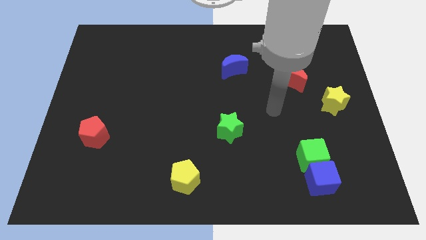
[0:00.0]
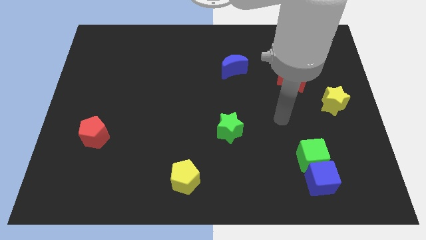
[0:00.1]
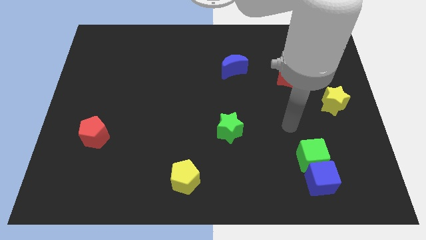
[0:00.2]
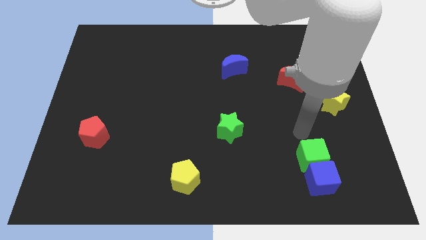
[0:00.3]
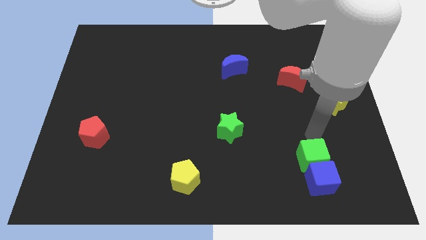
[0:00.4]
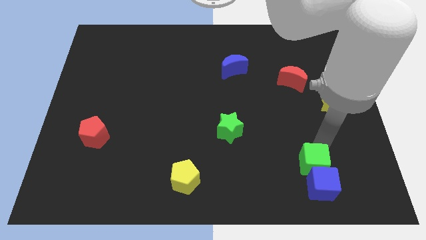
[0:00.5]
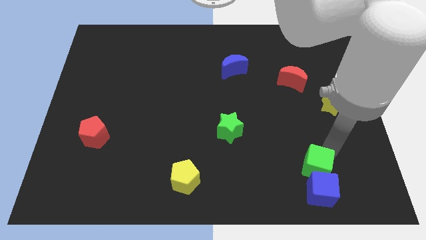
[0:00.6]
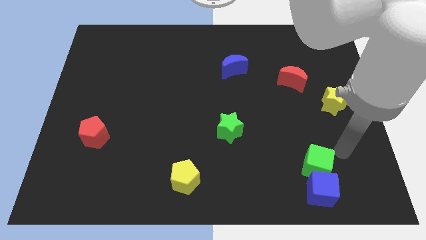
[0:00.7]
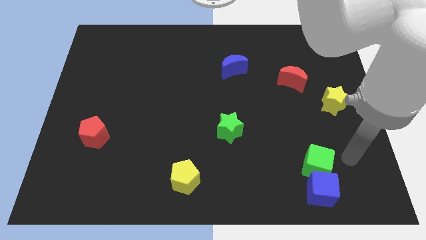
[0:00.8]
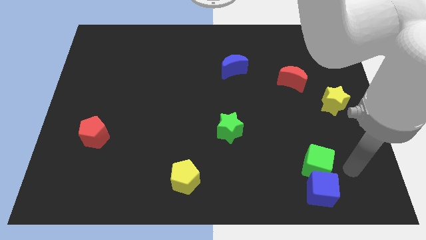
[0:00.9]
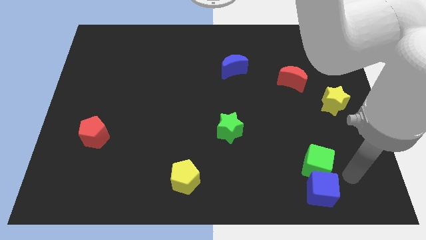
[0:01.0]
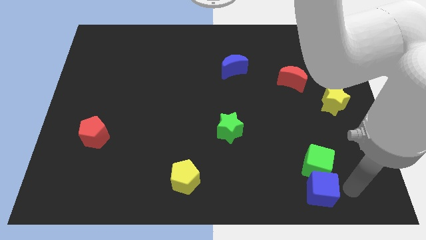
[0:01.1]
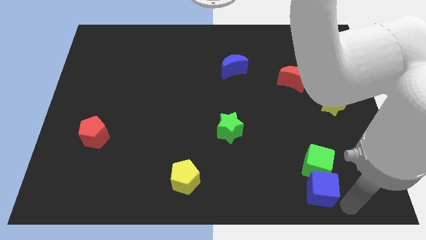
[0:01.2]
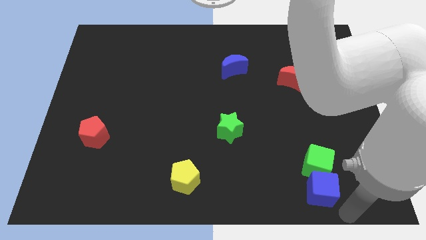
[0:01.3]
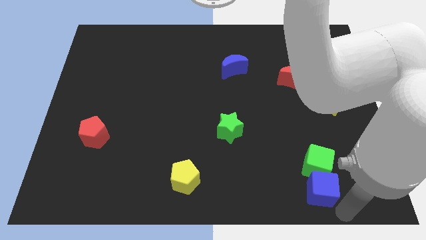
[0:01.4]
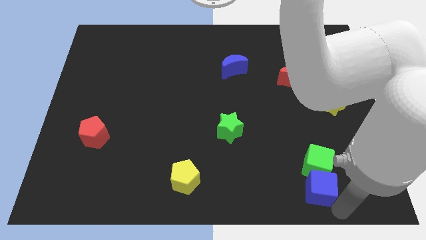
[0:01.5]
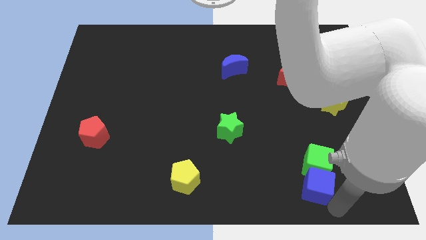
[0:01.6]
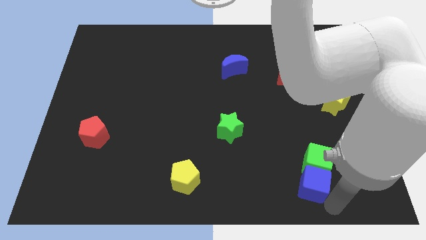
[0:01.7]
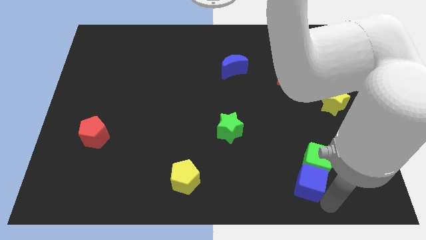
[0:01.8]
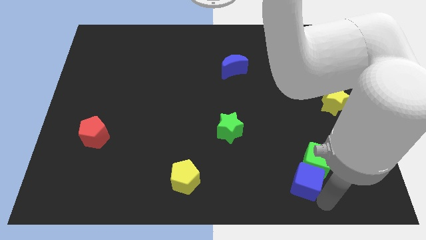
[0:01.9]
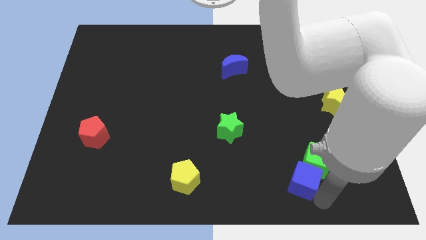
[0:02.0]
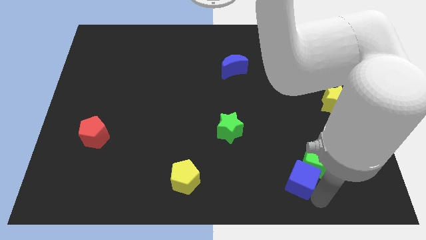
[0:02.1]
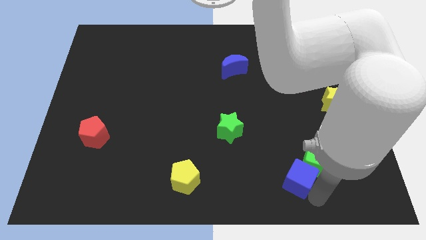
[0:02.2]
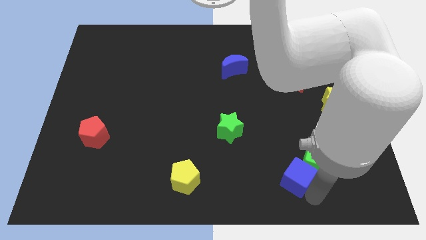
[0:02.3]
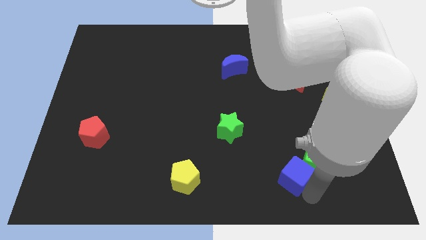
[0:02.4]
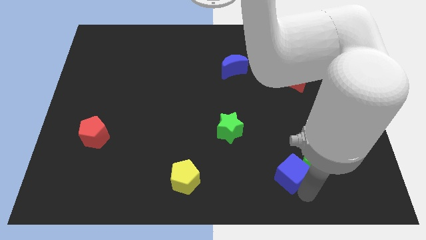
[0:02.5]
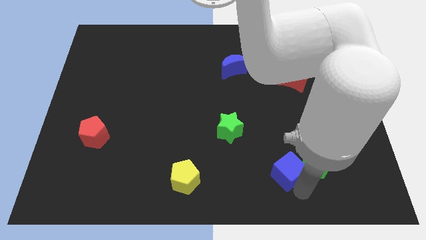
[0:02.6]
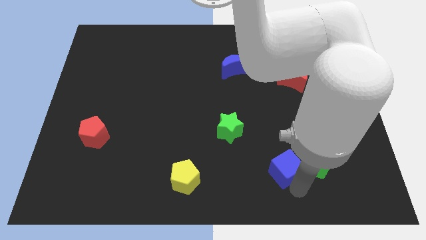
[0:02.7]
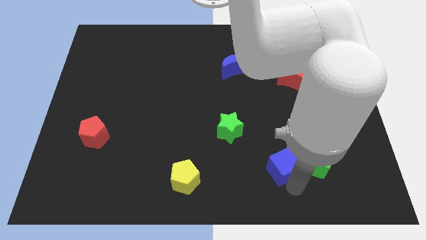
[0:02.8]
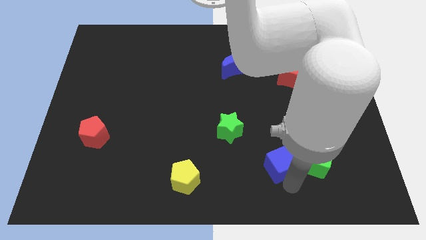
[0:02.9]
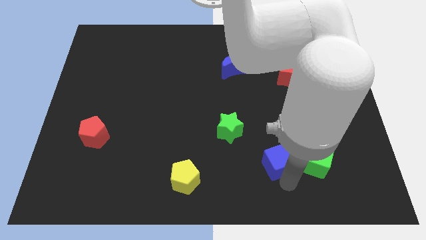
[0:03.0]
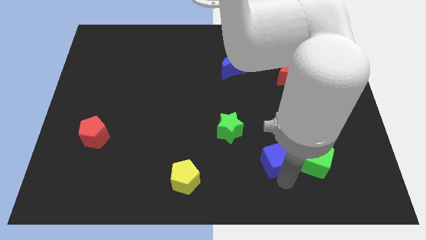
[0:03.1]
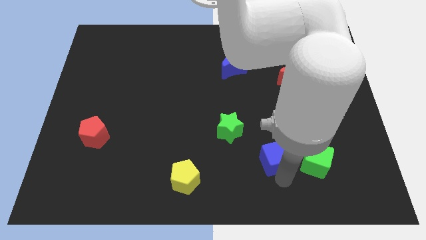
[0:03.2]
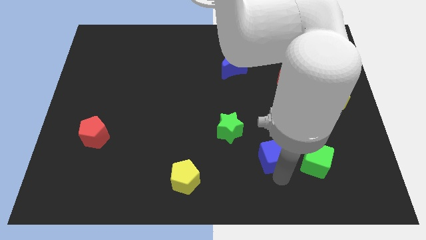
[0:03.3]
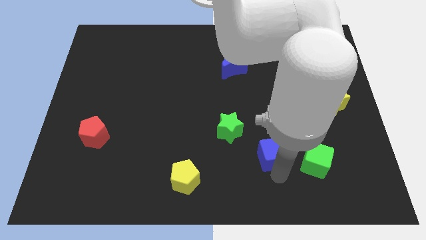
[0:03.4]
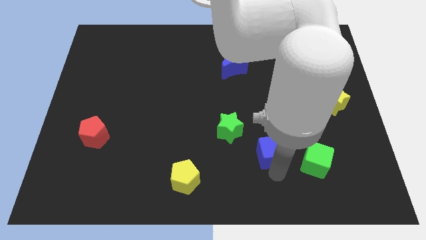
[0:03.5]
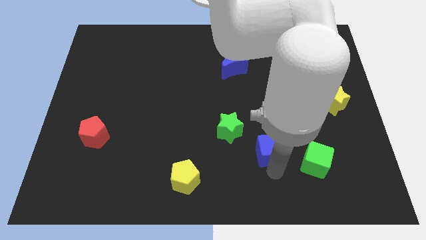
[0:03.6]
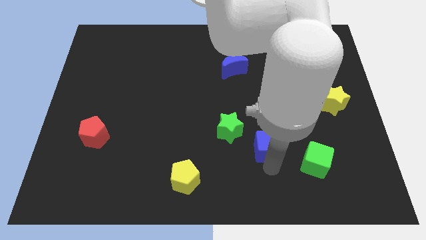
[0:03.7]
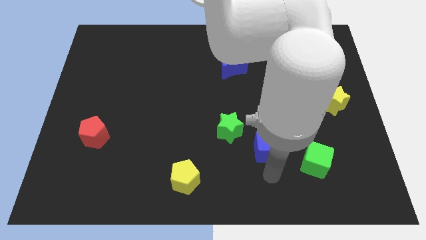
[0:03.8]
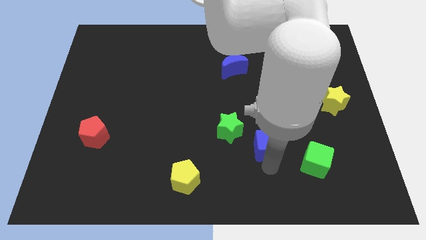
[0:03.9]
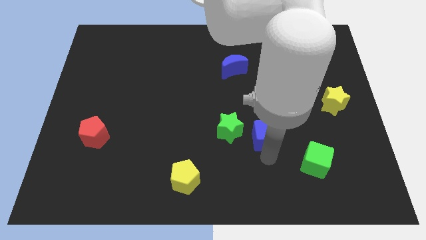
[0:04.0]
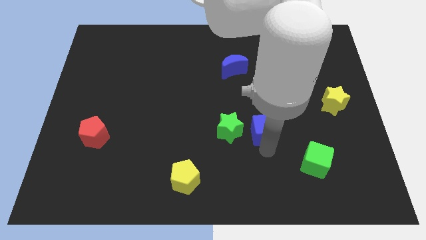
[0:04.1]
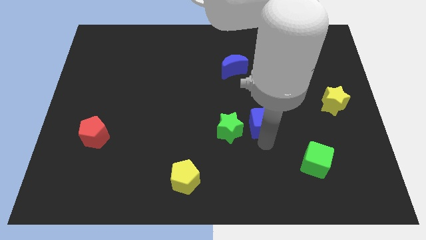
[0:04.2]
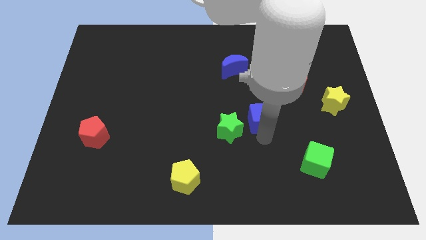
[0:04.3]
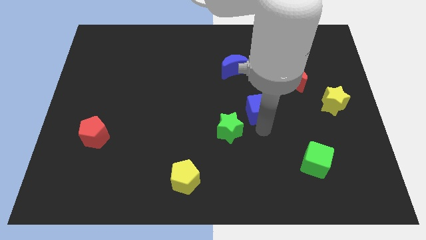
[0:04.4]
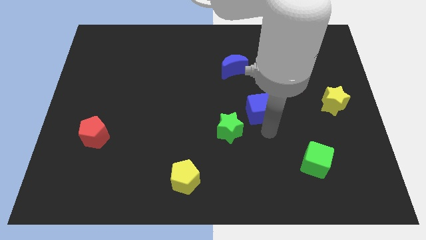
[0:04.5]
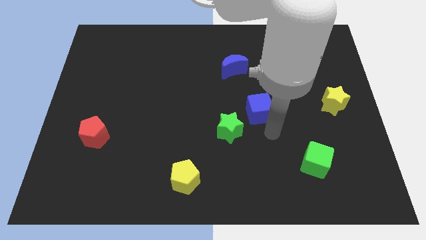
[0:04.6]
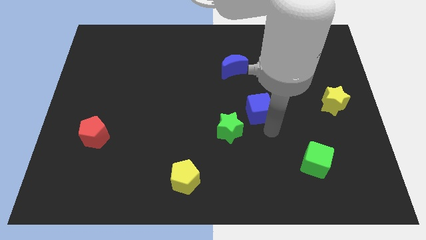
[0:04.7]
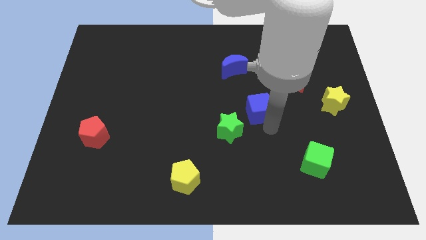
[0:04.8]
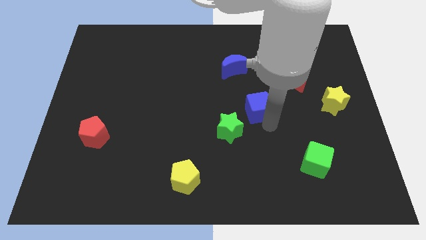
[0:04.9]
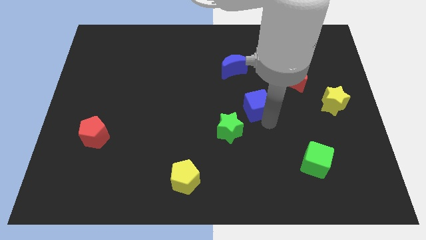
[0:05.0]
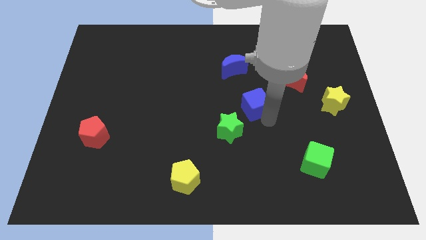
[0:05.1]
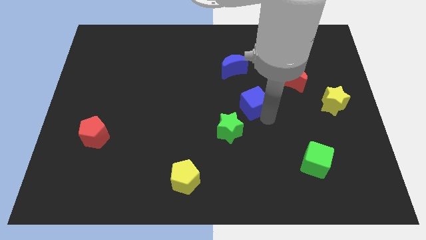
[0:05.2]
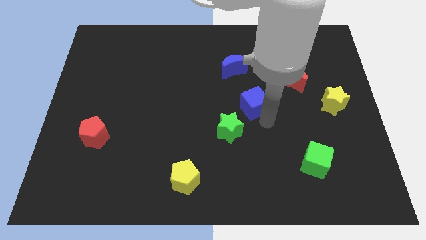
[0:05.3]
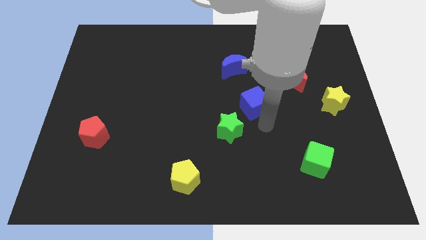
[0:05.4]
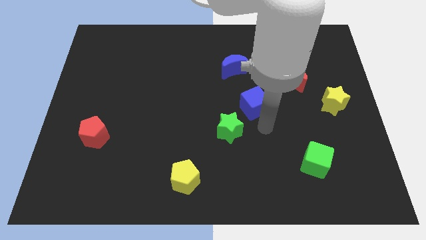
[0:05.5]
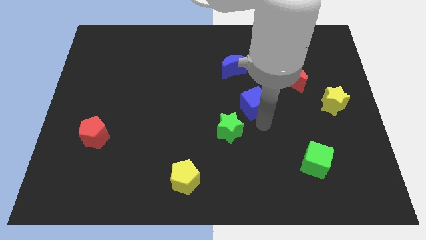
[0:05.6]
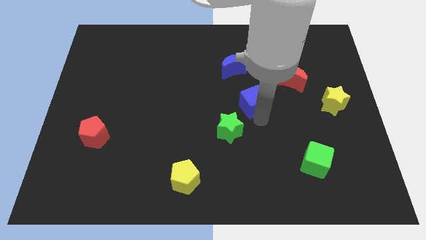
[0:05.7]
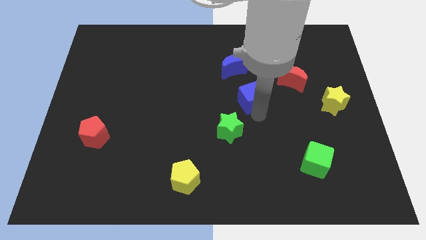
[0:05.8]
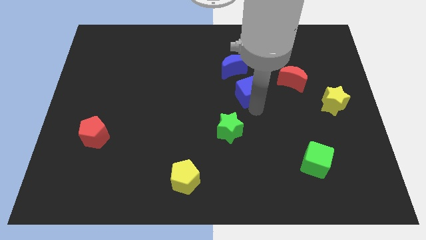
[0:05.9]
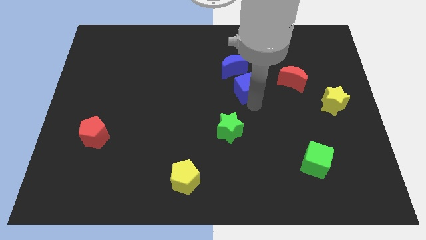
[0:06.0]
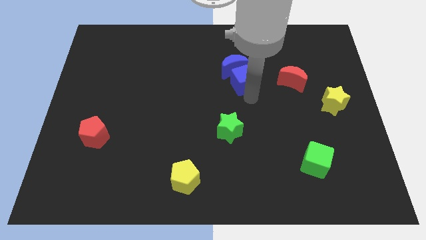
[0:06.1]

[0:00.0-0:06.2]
put the blue cube towards the blue moon

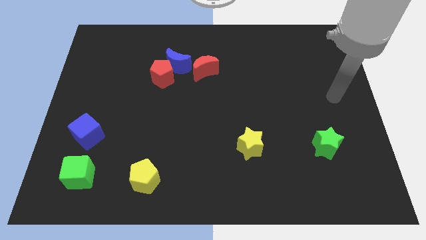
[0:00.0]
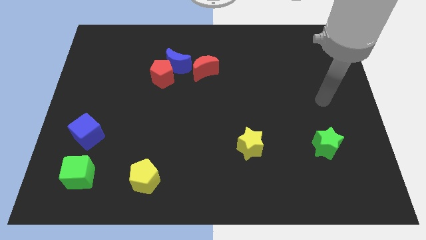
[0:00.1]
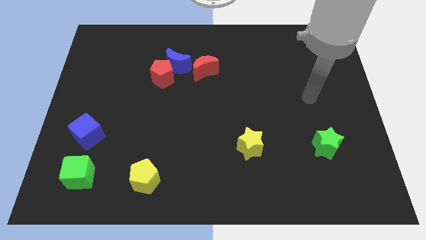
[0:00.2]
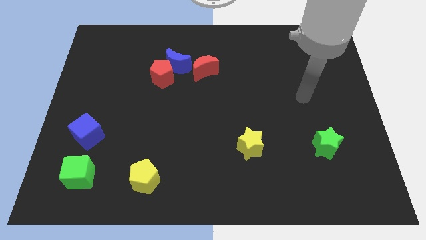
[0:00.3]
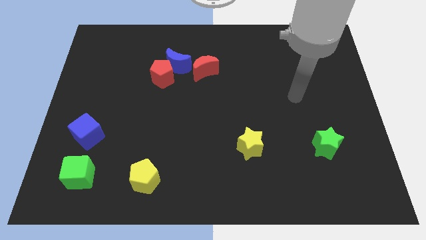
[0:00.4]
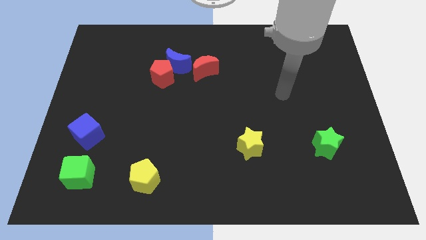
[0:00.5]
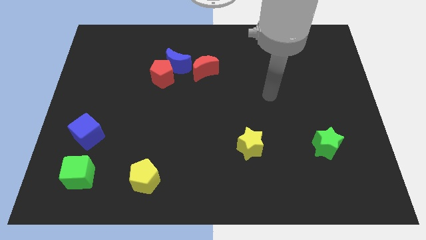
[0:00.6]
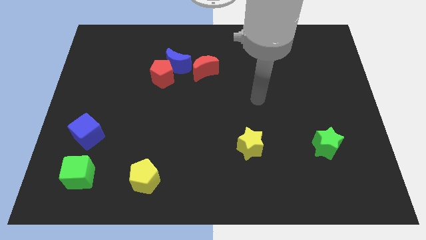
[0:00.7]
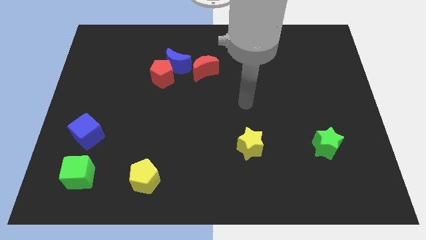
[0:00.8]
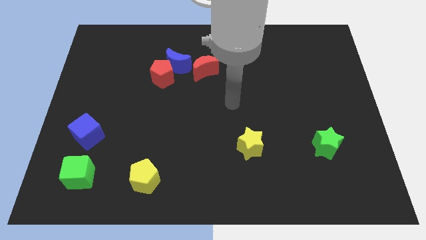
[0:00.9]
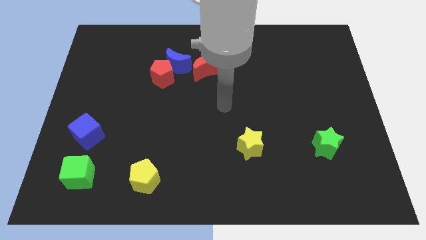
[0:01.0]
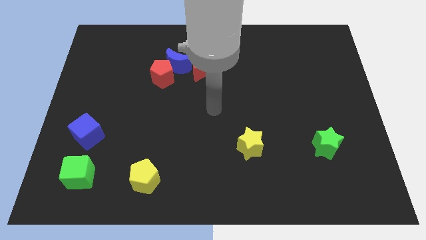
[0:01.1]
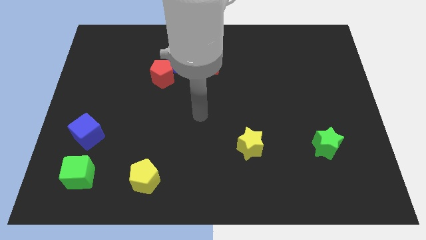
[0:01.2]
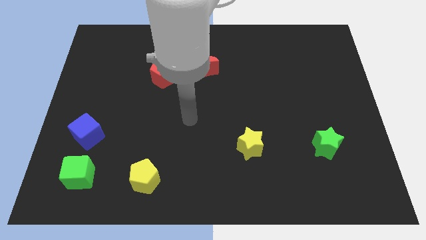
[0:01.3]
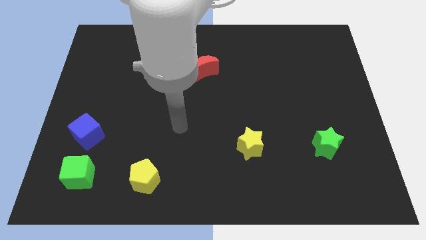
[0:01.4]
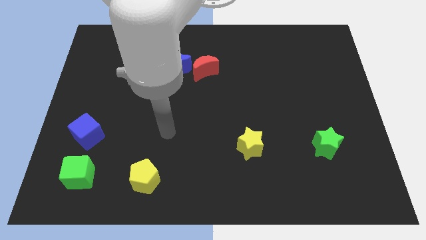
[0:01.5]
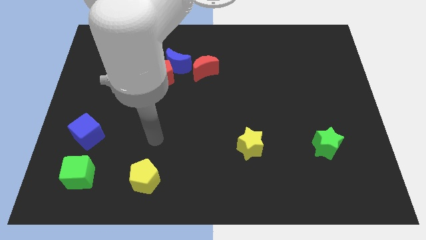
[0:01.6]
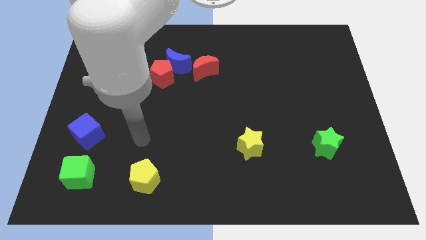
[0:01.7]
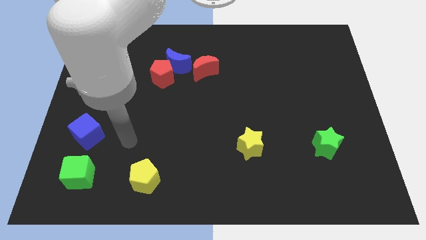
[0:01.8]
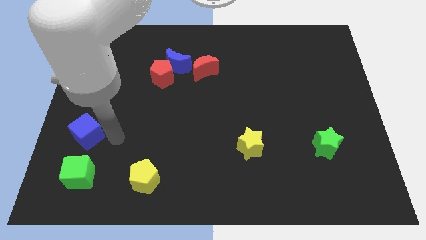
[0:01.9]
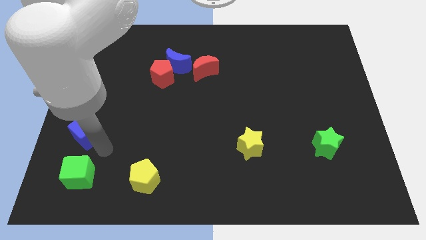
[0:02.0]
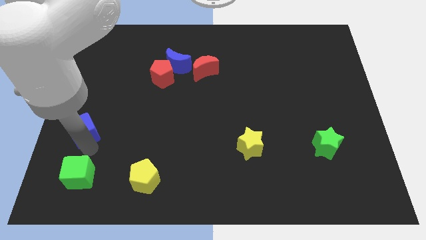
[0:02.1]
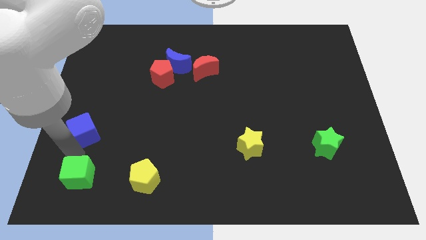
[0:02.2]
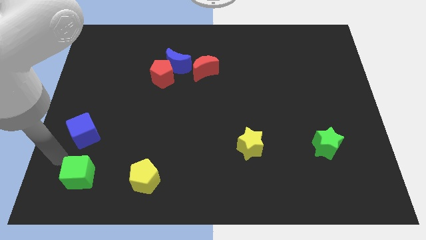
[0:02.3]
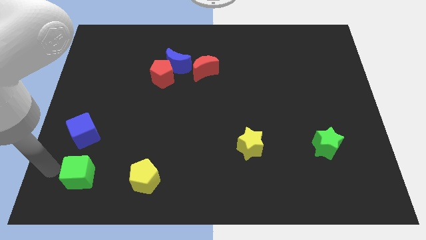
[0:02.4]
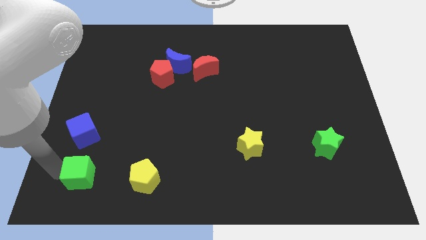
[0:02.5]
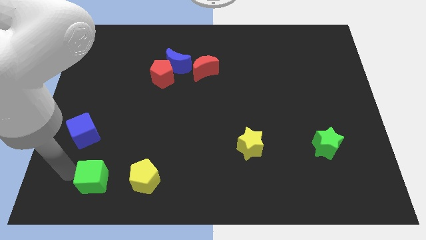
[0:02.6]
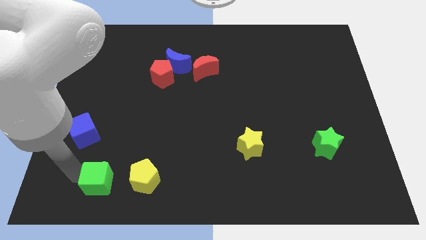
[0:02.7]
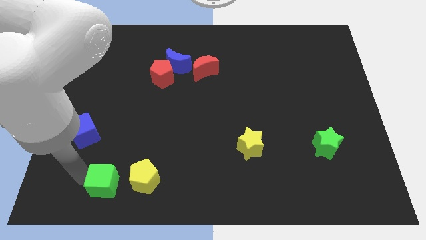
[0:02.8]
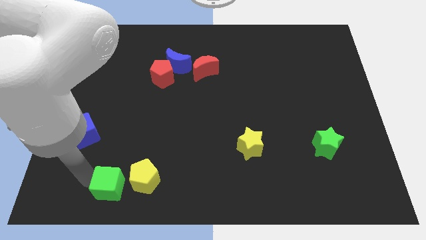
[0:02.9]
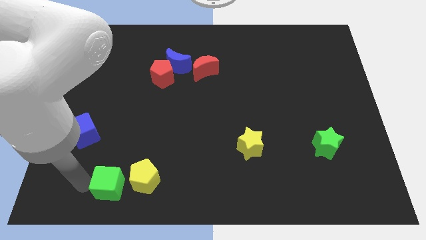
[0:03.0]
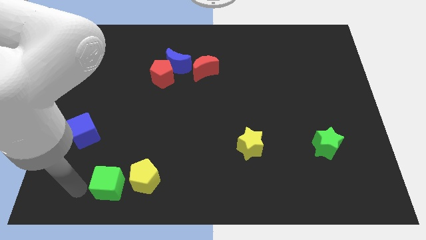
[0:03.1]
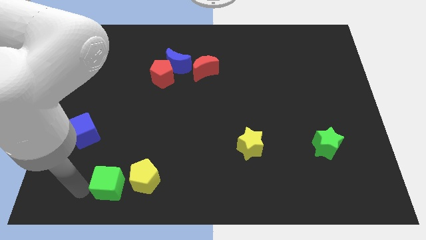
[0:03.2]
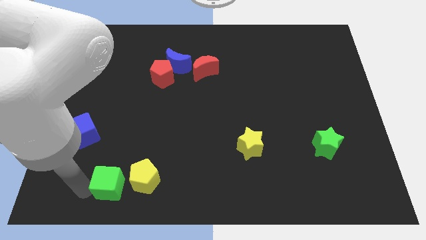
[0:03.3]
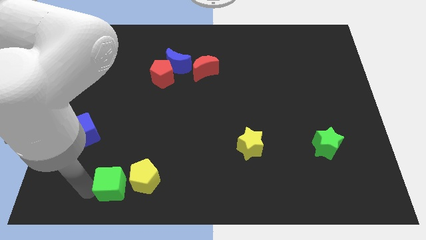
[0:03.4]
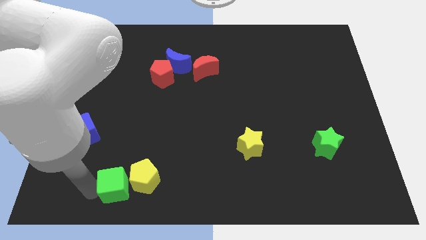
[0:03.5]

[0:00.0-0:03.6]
push the green cube close to the yellow pentagon
